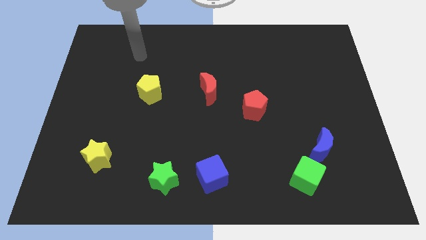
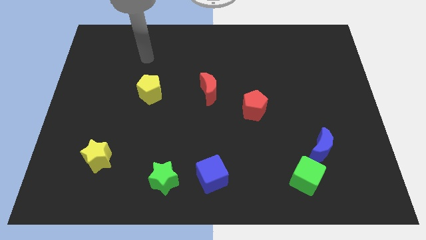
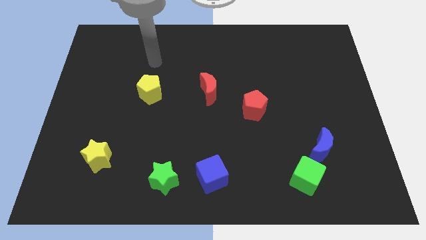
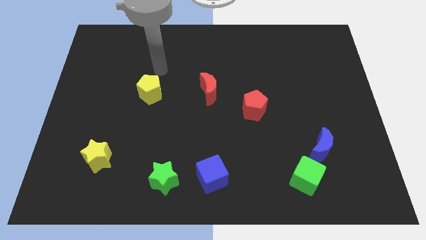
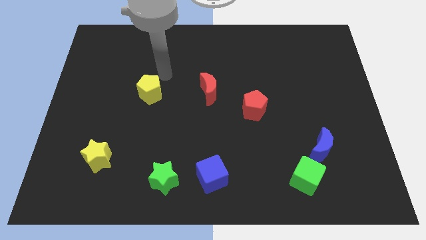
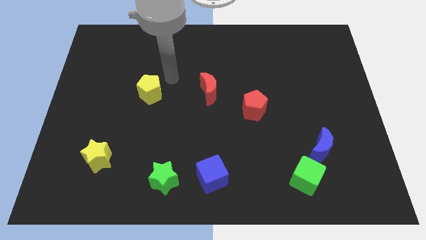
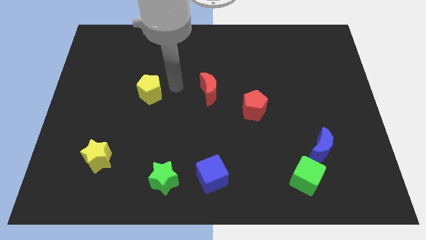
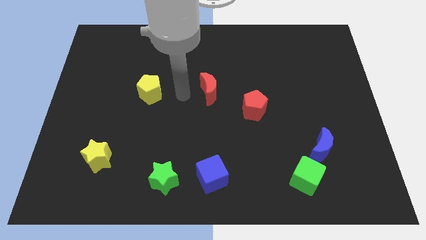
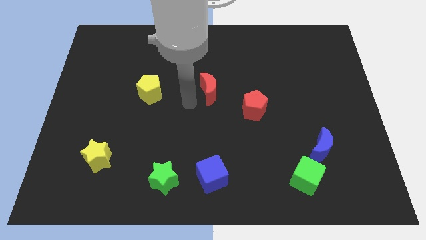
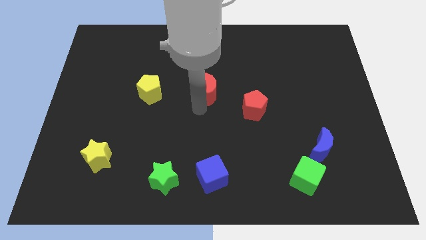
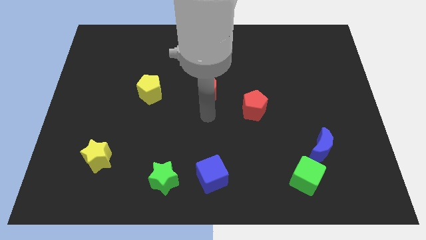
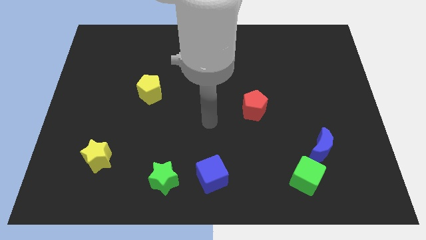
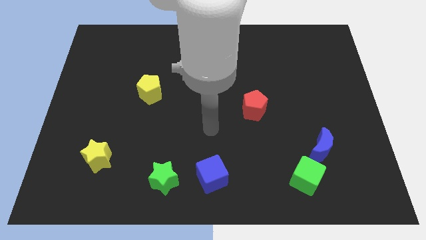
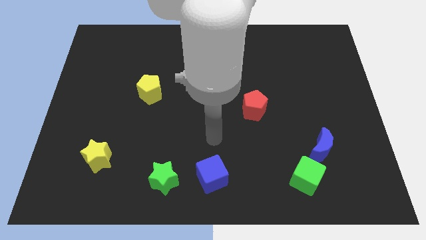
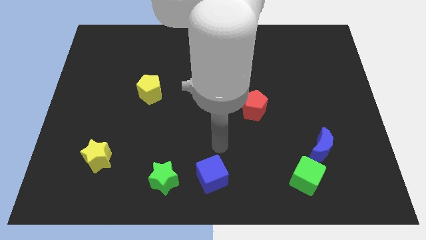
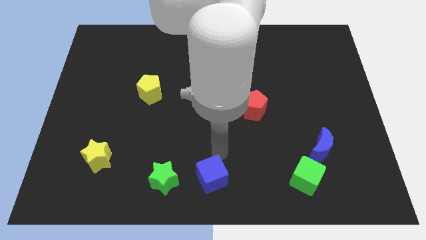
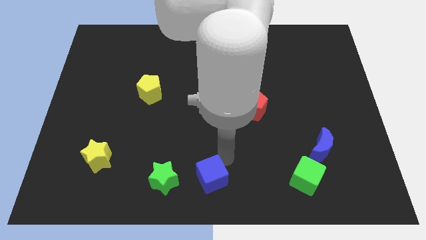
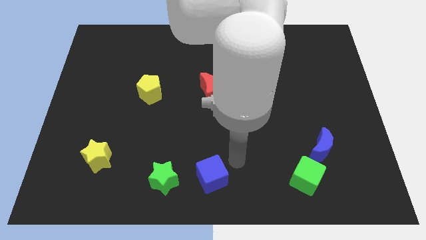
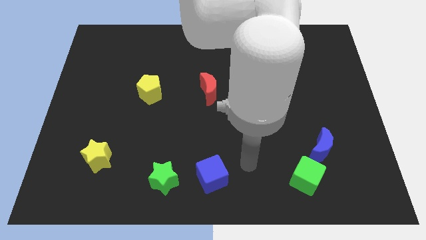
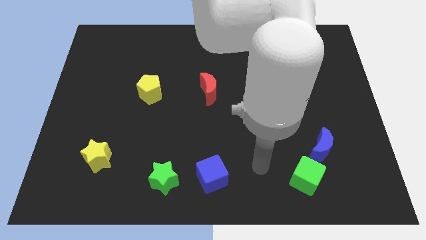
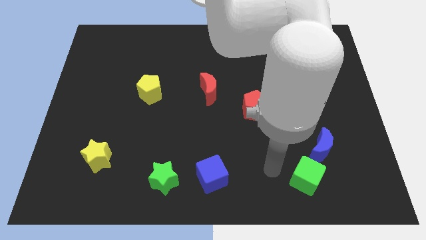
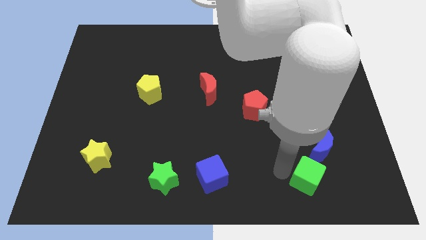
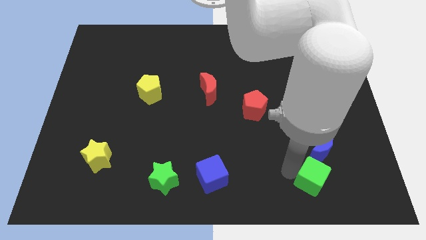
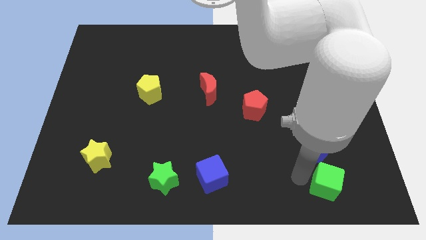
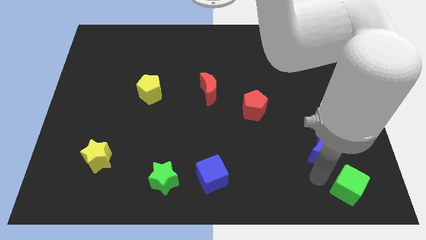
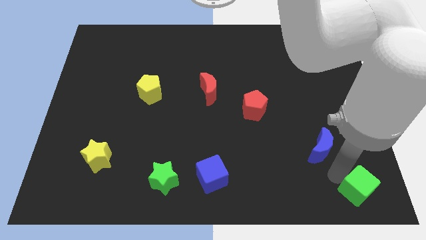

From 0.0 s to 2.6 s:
separate the blue moon from the green cube

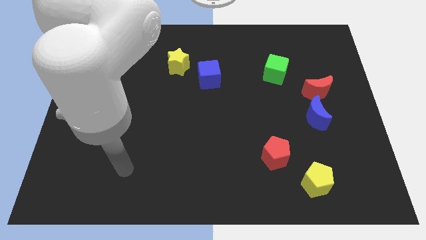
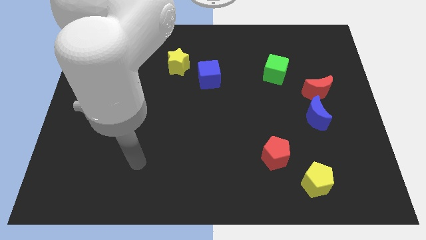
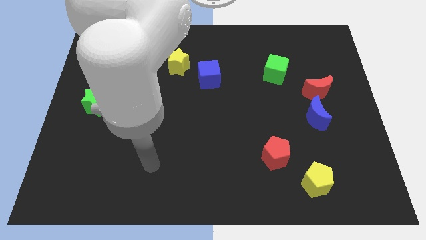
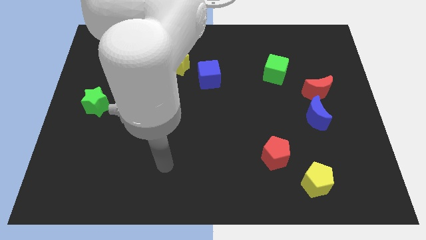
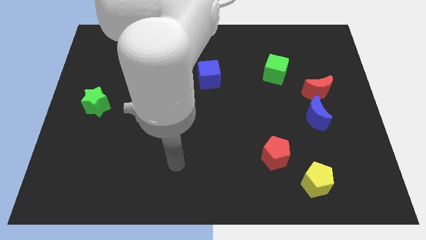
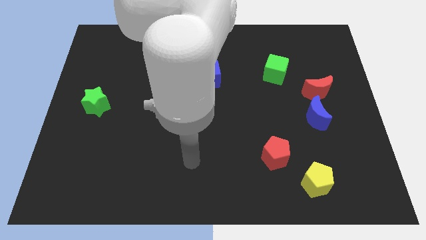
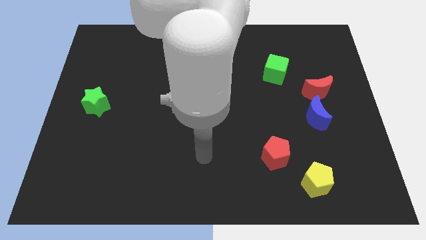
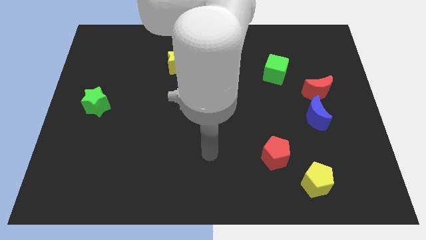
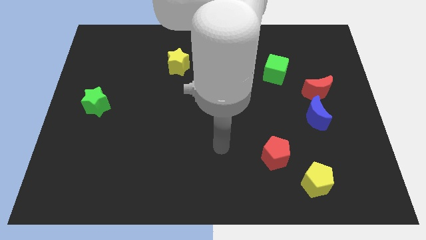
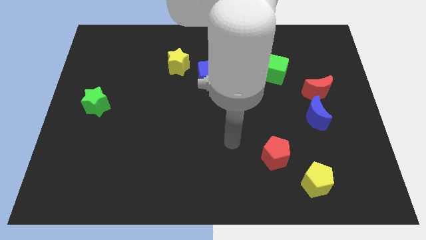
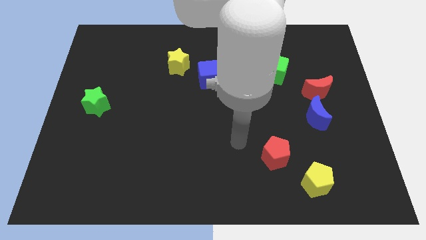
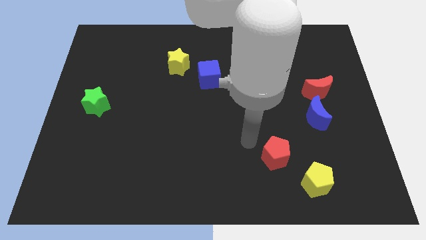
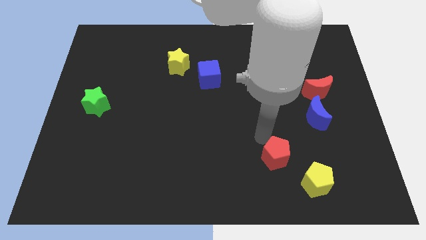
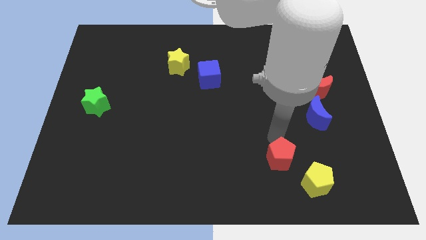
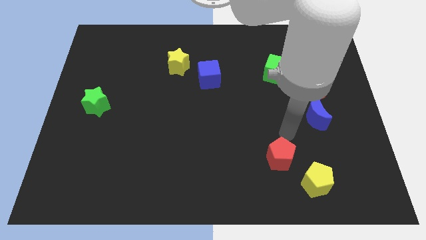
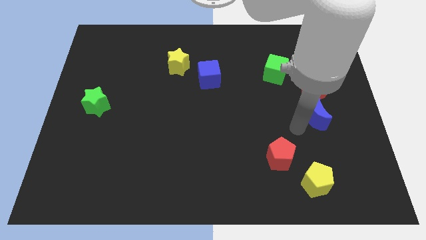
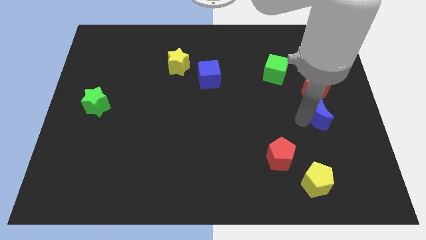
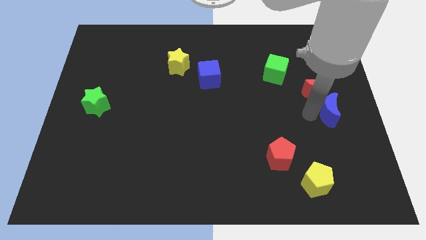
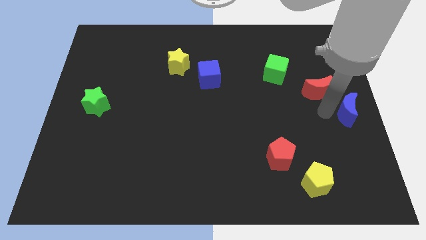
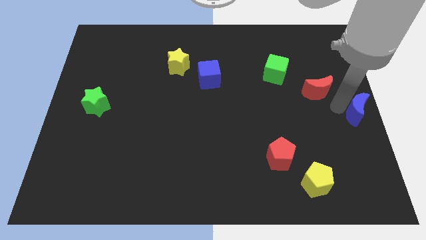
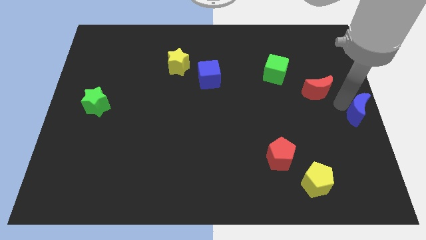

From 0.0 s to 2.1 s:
move the red moon away from the blue moon

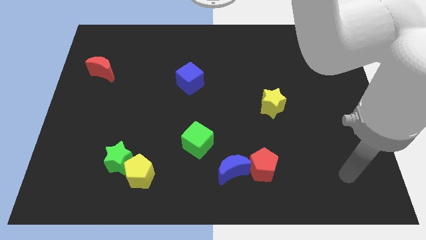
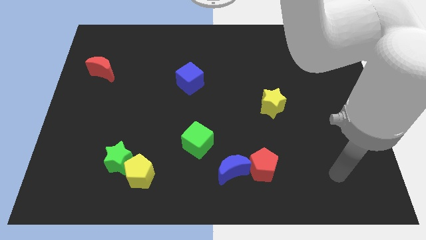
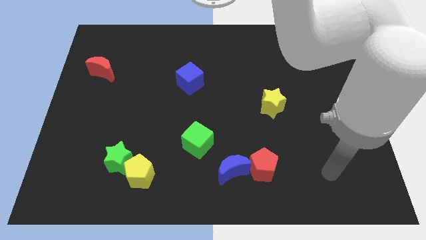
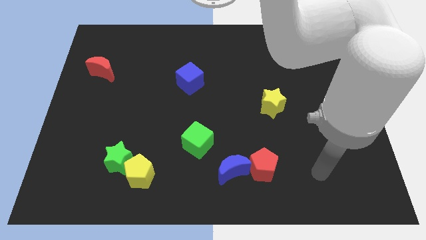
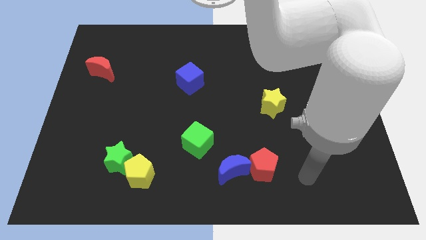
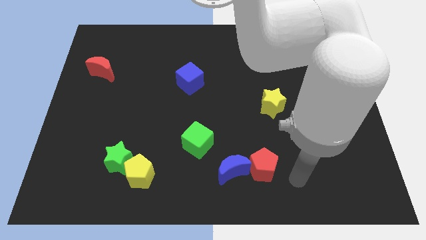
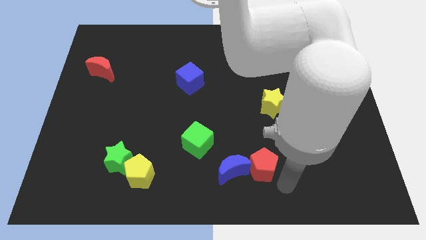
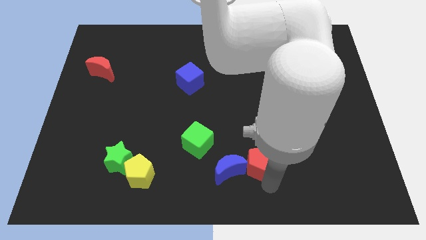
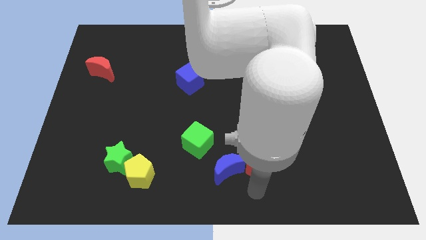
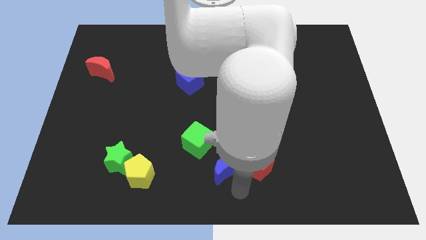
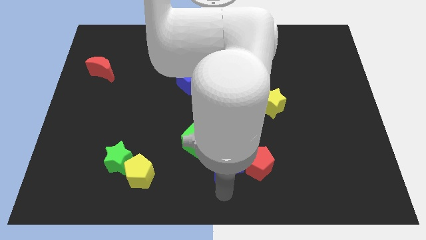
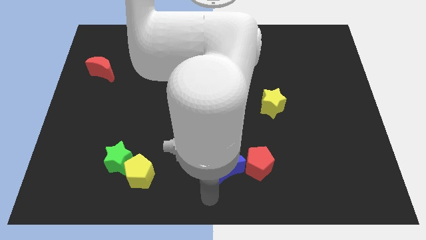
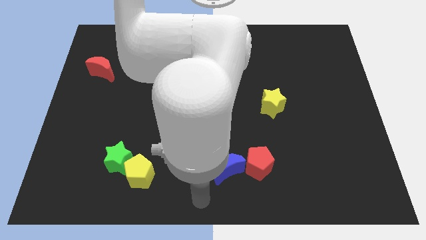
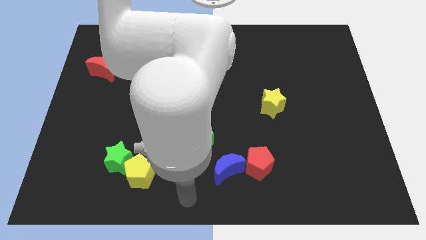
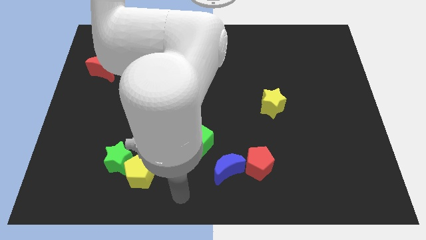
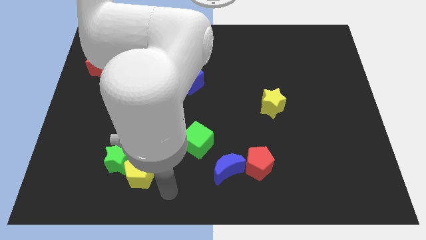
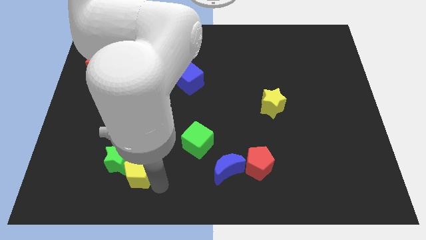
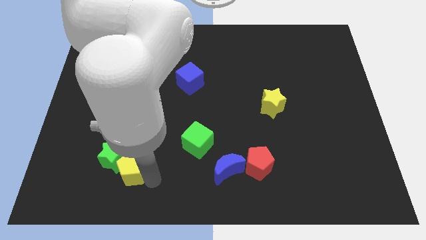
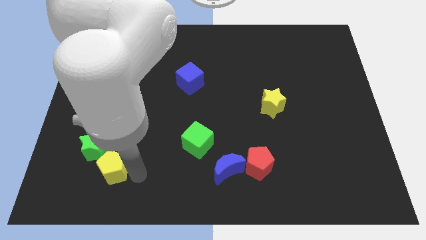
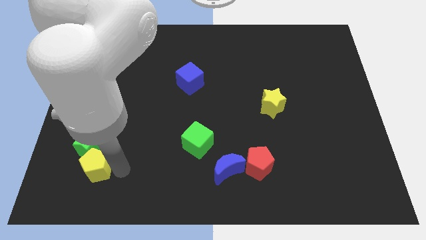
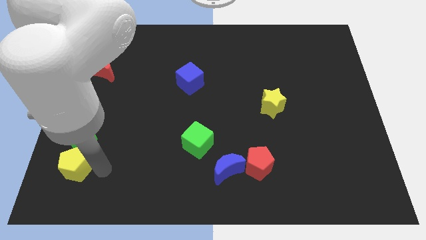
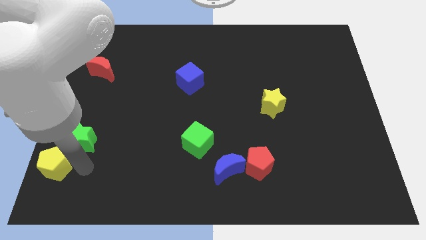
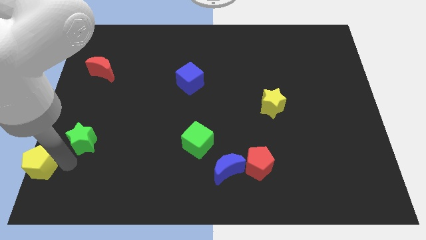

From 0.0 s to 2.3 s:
pull the green star apart from the yellow pentagon

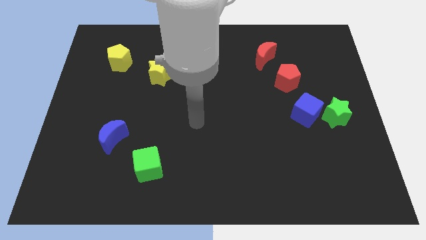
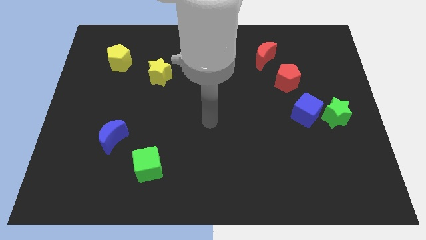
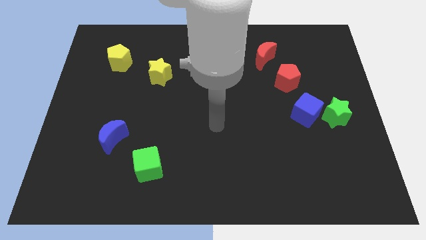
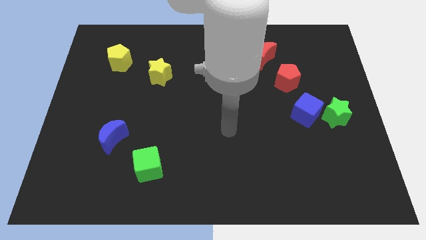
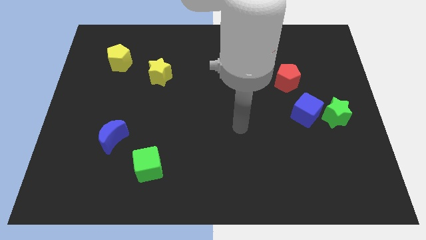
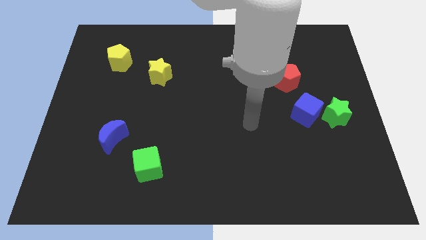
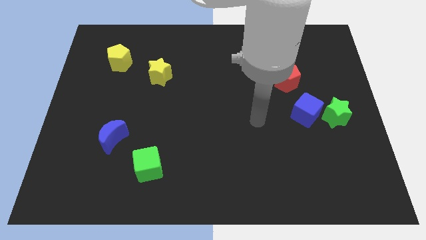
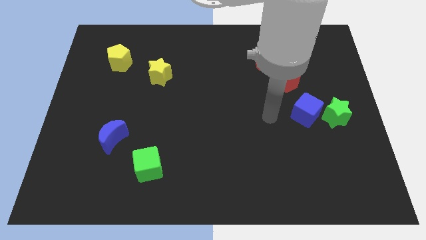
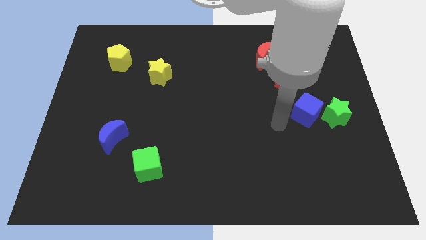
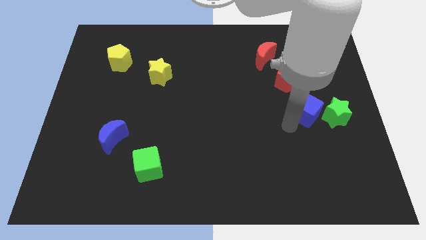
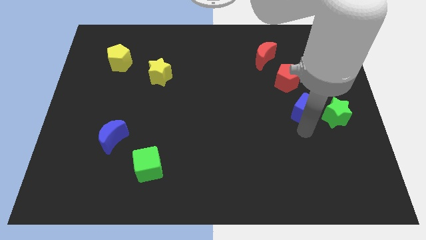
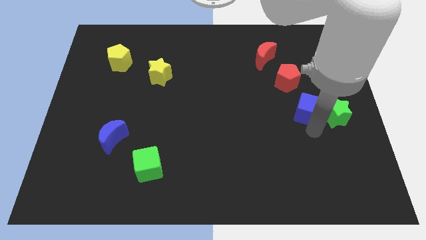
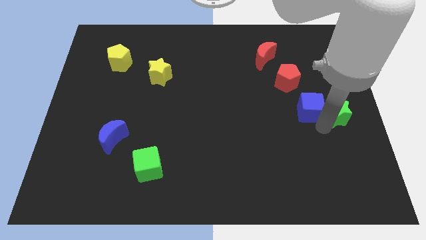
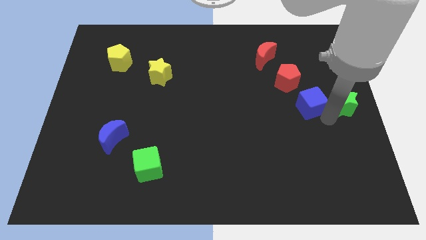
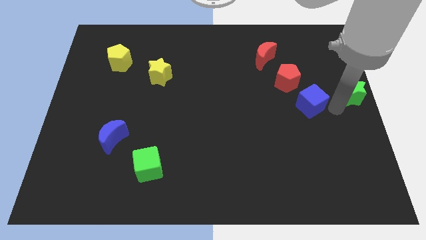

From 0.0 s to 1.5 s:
separate the blue cube from the green star

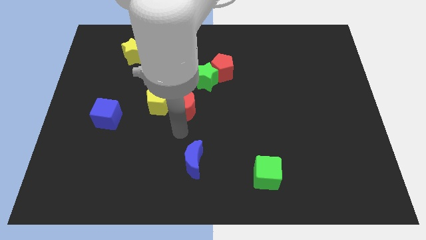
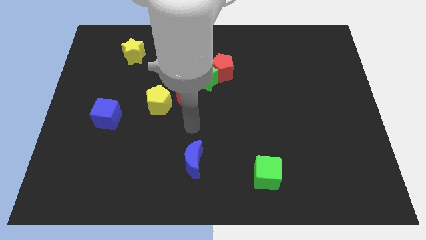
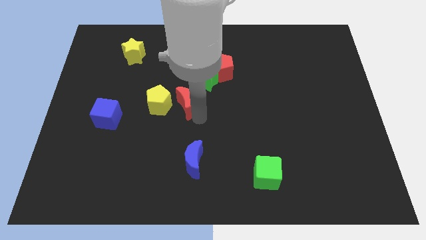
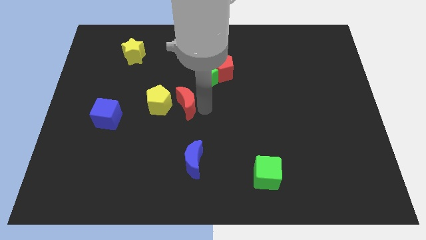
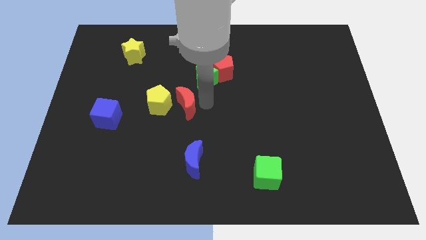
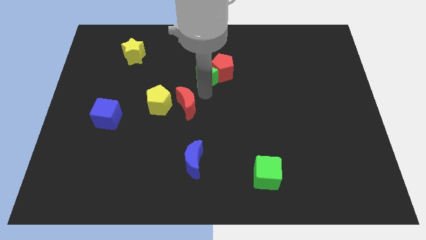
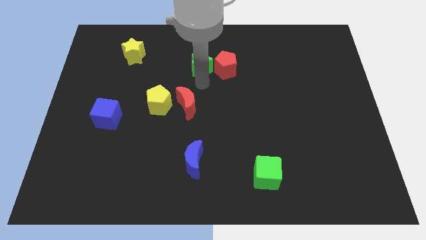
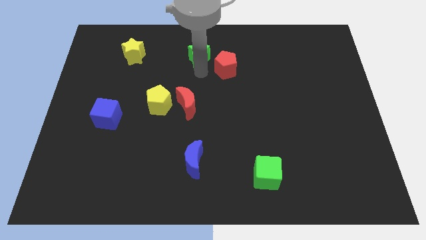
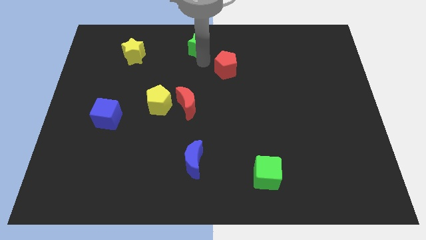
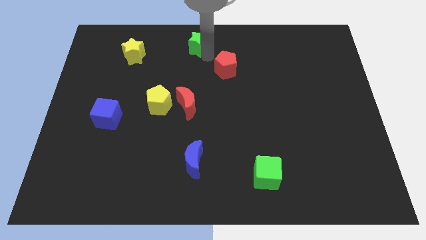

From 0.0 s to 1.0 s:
pull the red pentagon apart from the green star
